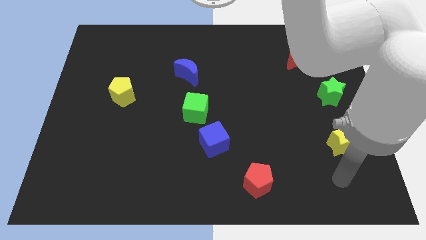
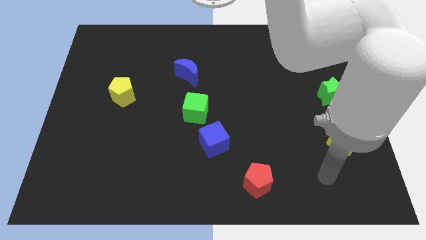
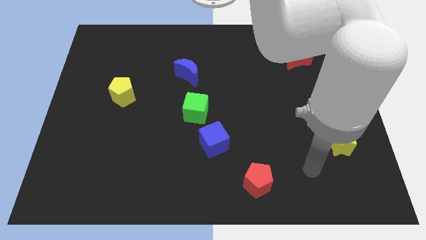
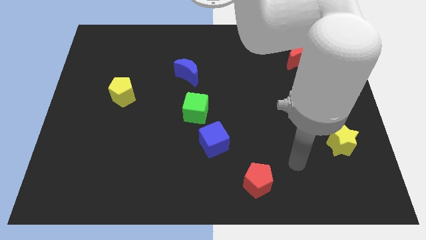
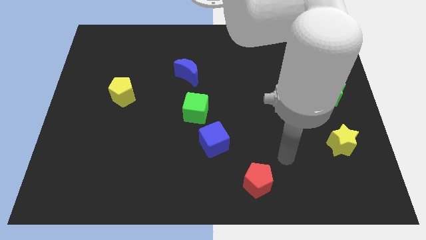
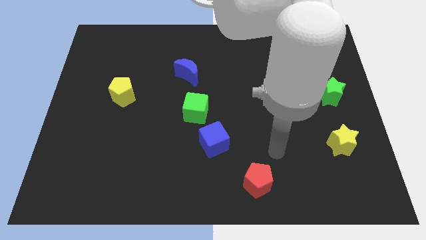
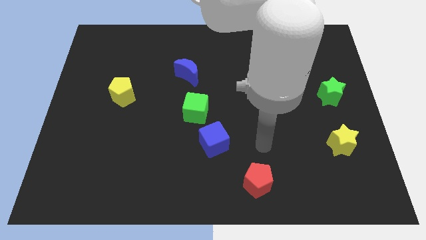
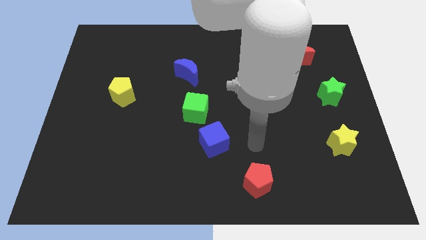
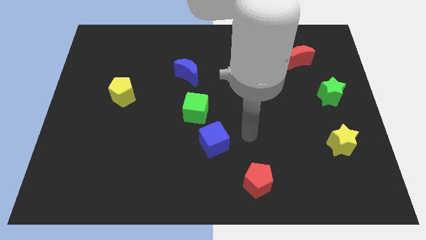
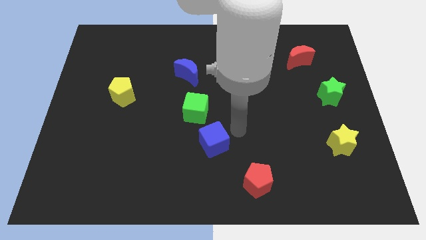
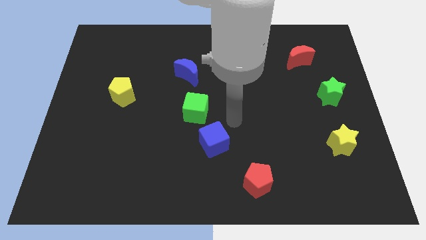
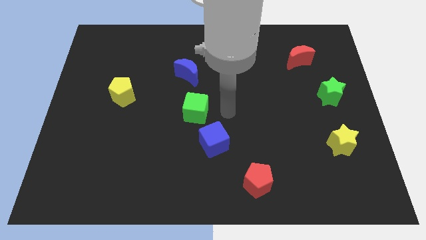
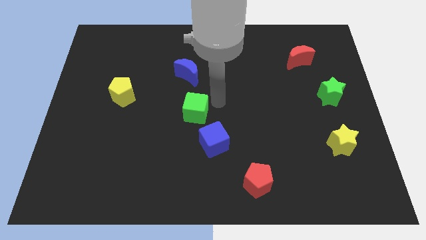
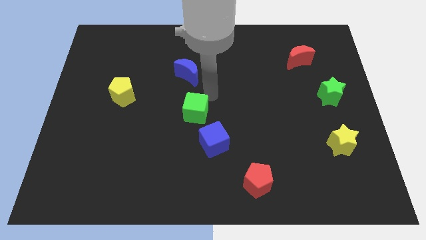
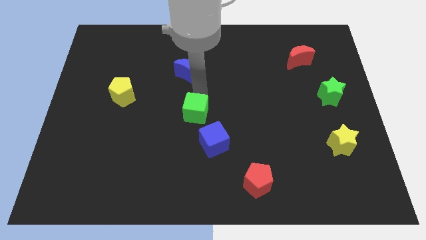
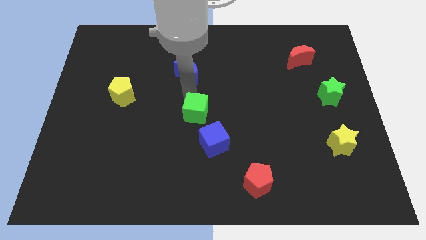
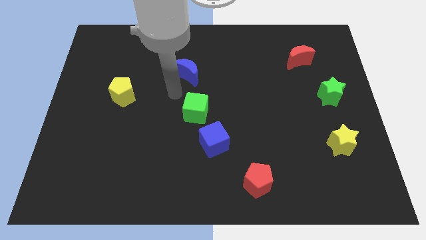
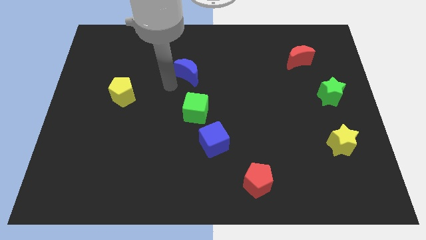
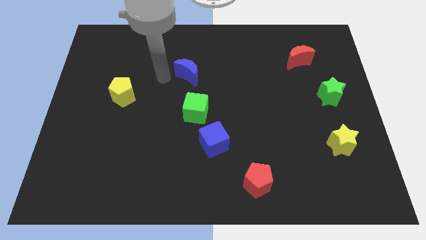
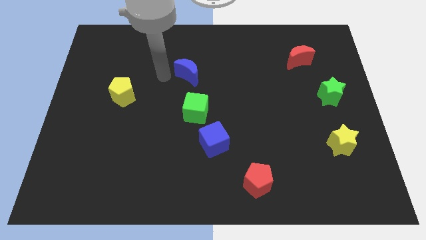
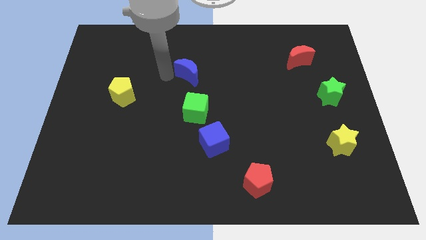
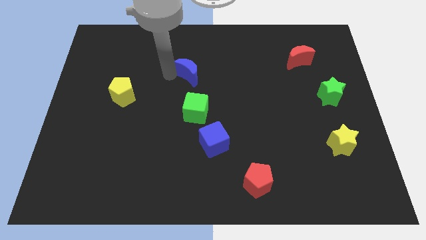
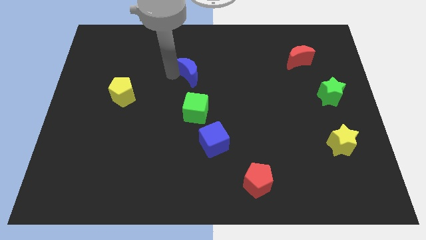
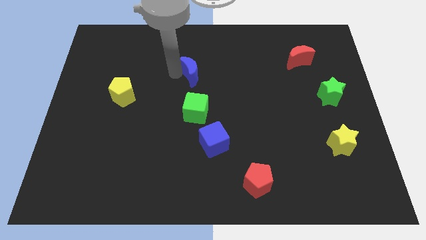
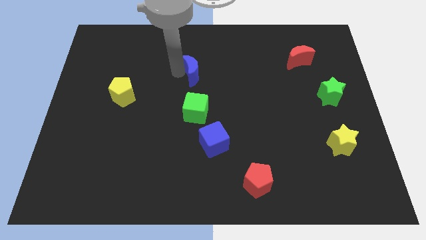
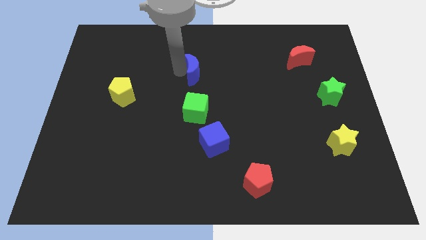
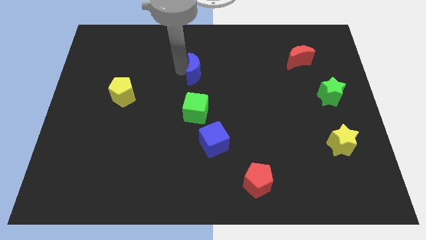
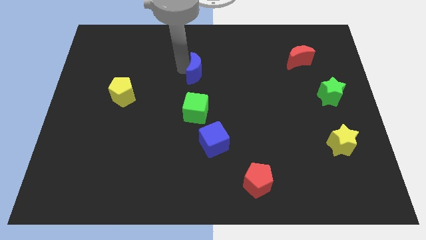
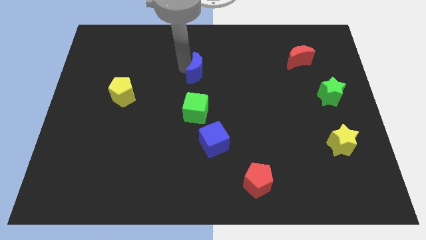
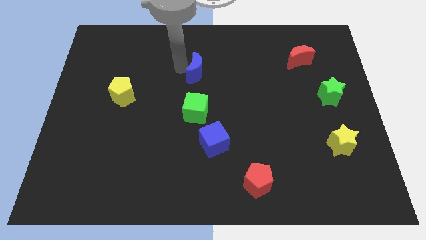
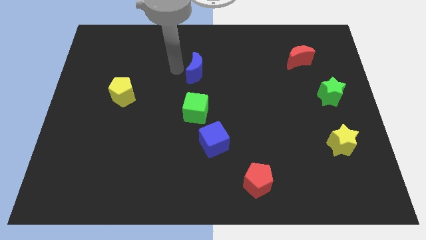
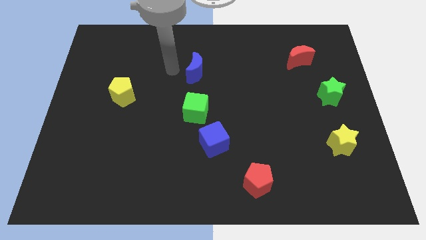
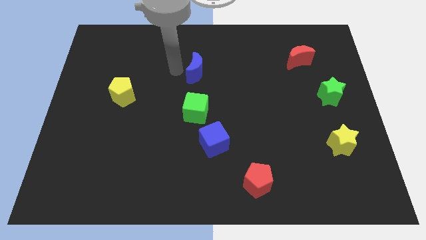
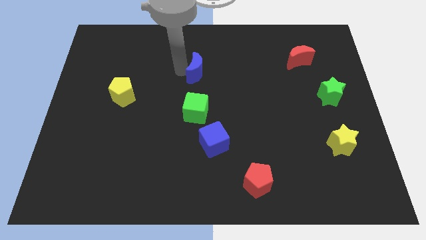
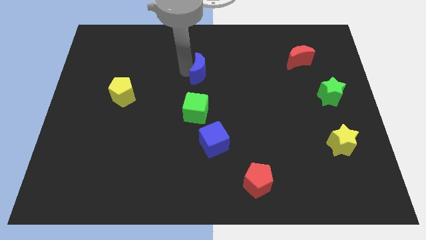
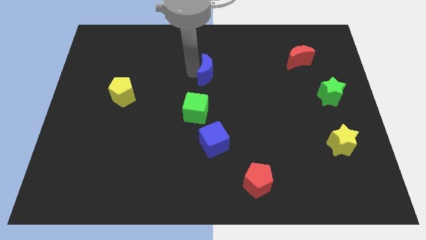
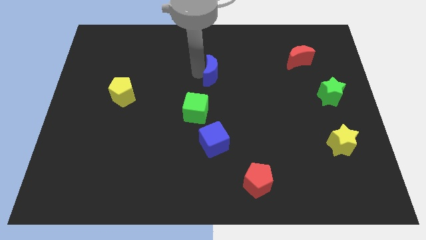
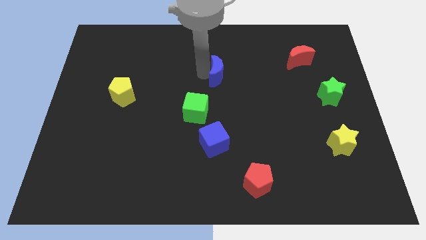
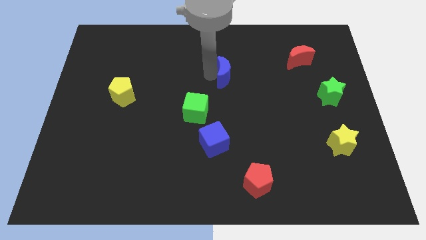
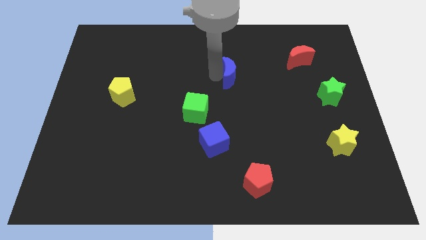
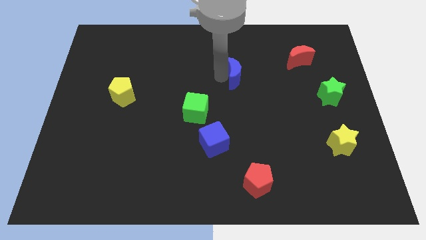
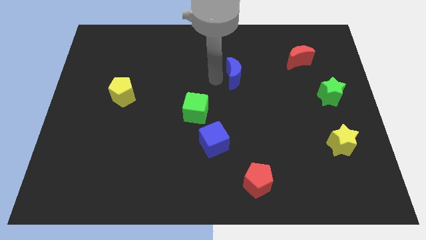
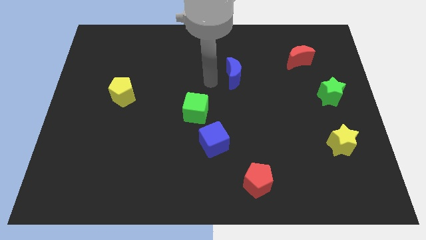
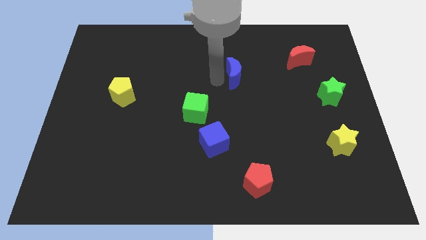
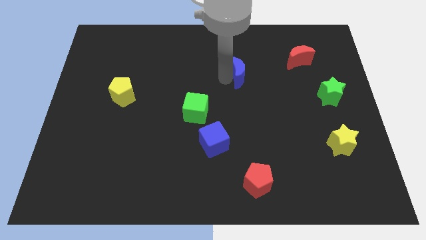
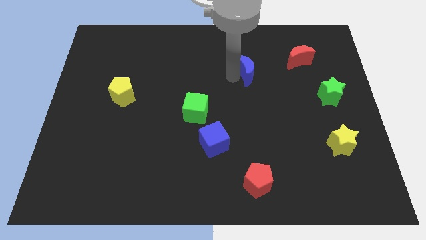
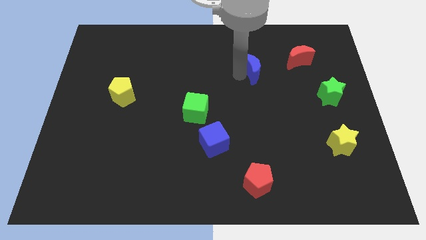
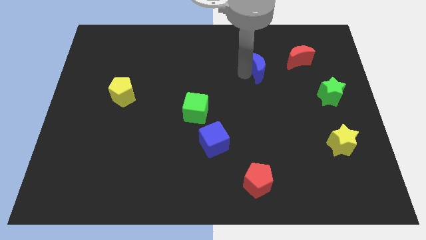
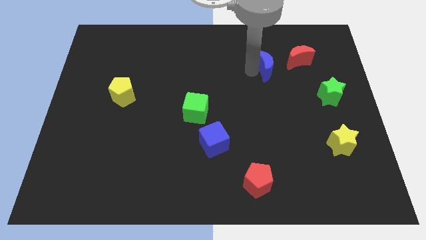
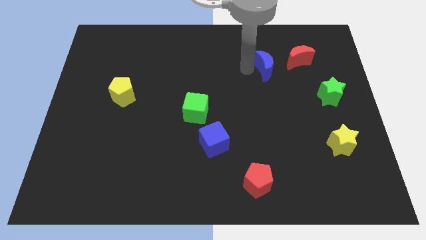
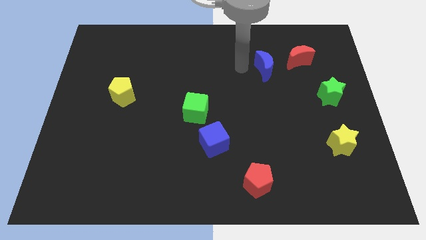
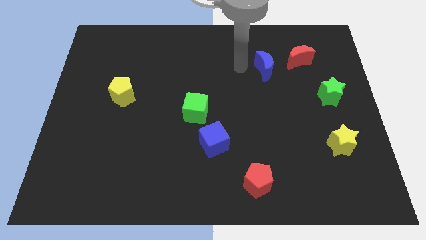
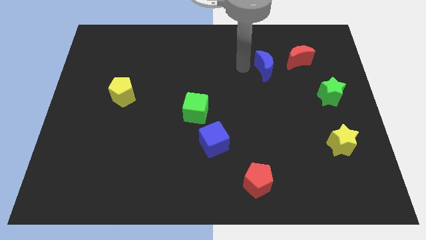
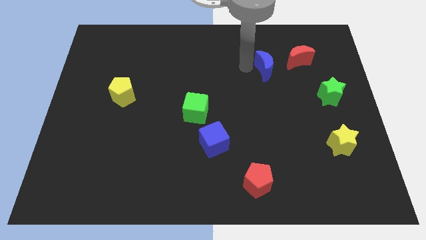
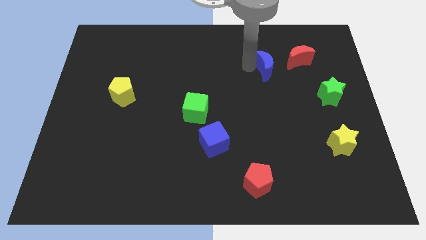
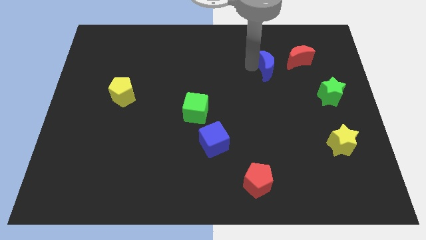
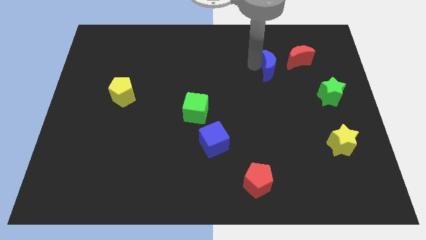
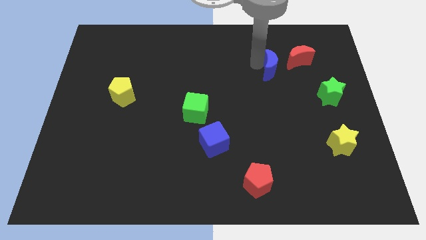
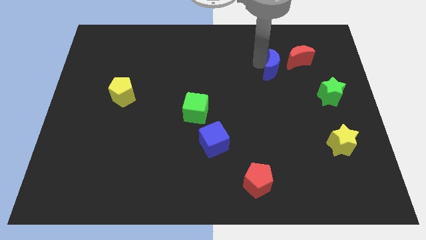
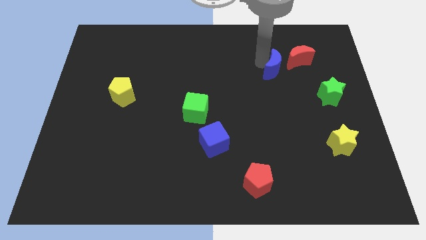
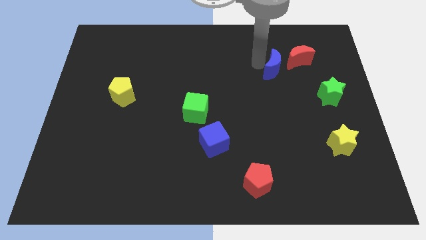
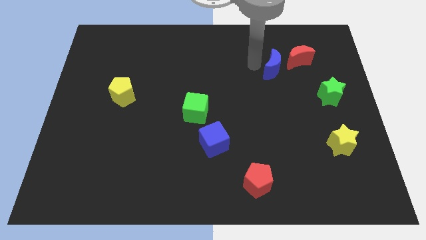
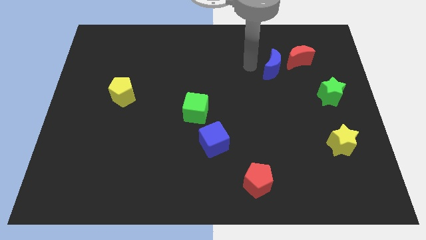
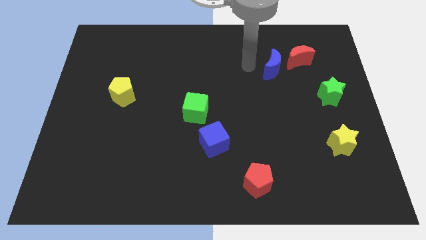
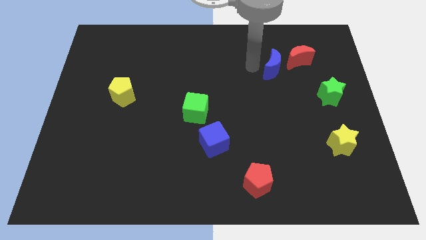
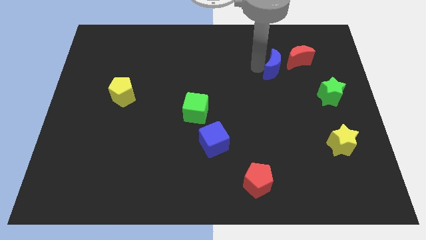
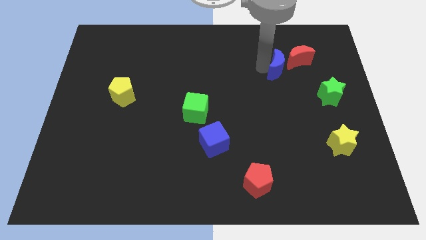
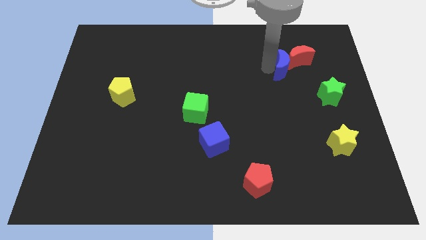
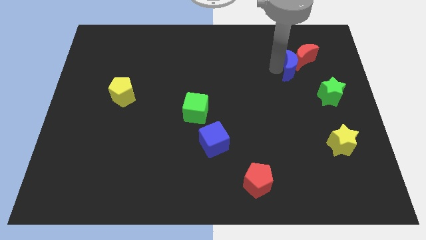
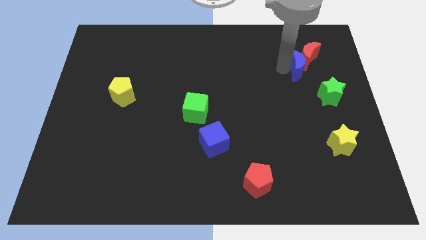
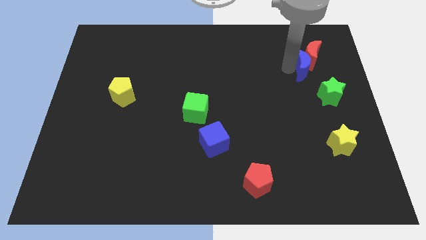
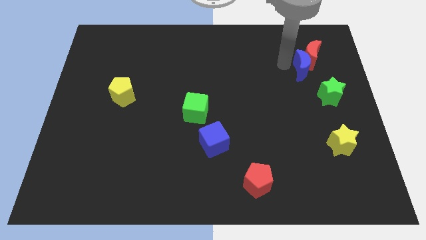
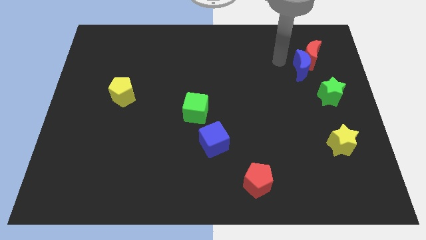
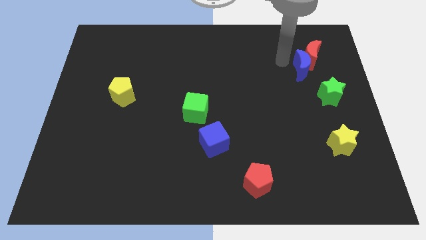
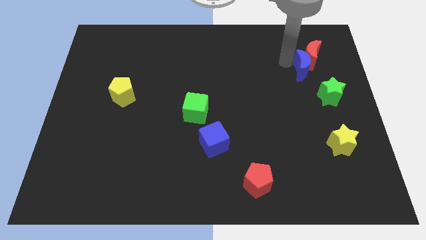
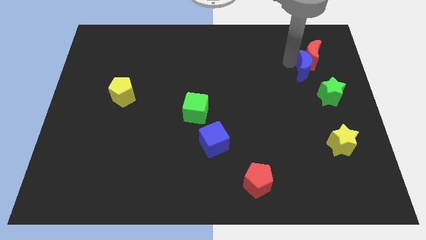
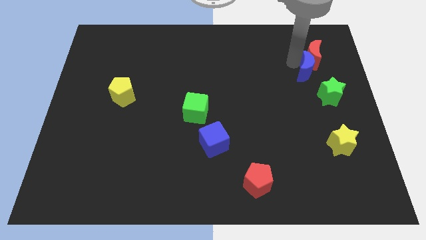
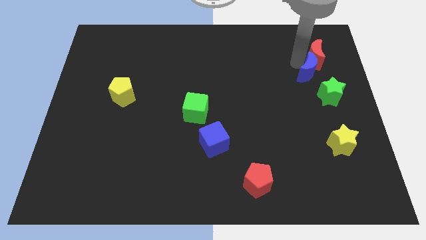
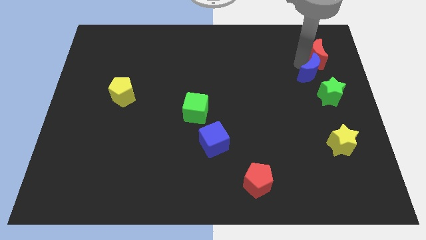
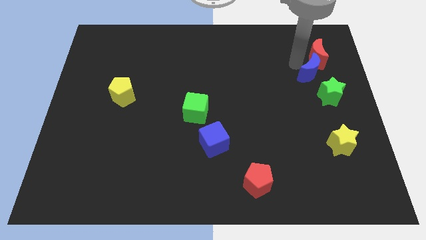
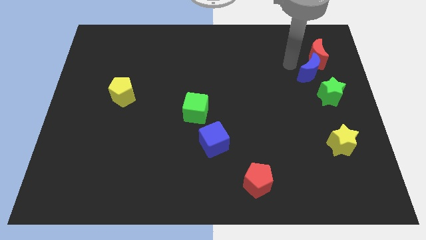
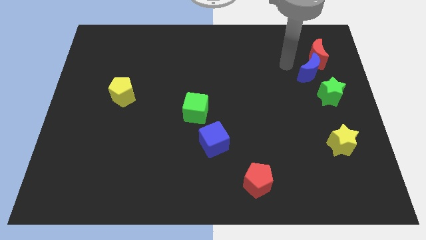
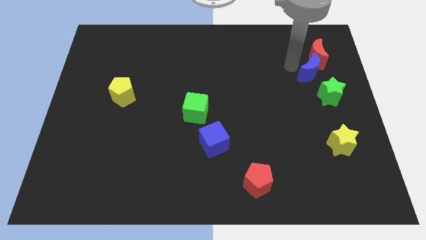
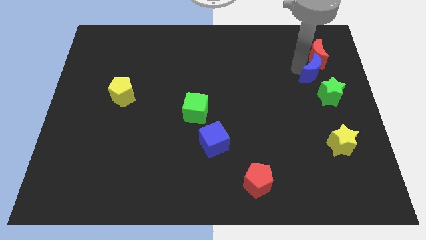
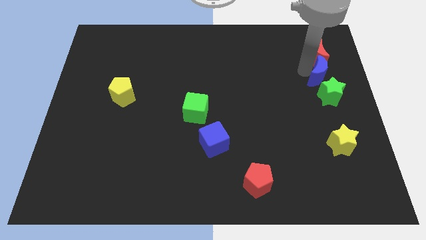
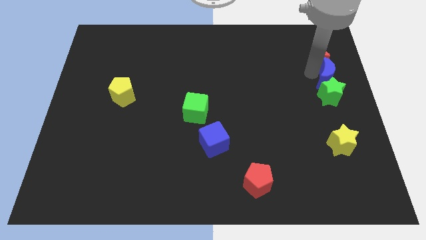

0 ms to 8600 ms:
push the blue moon to the center right

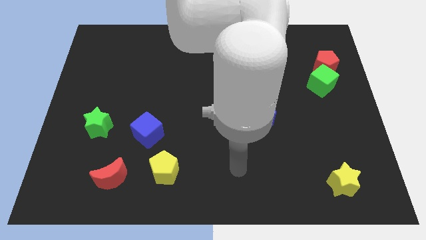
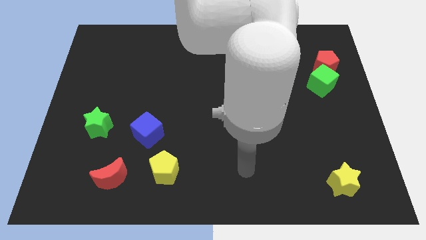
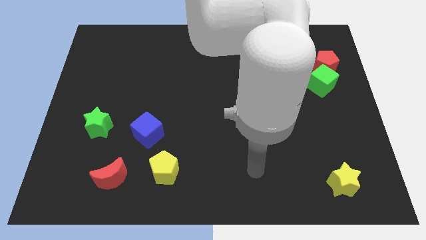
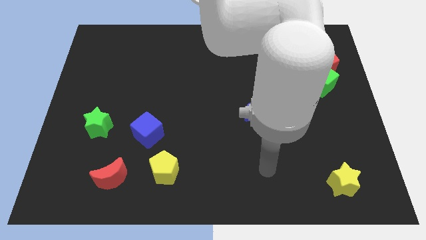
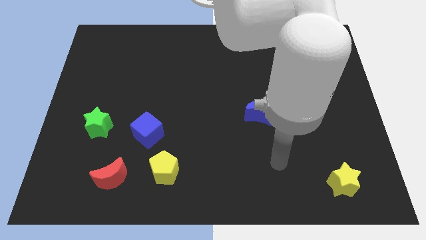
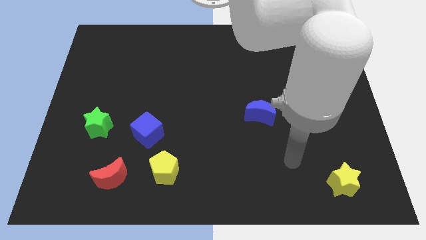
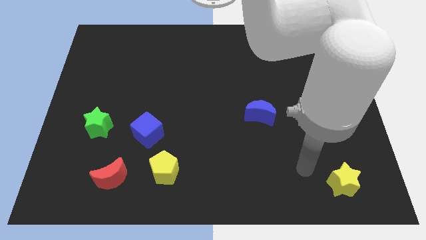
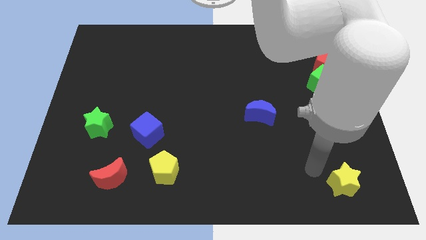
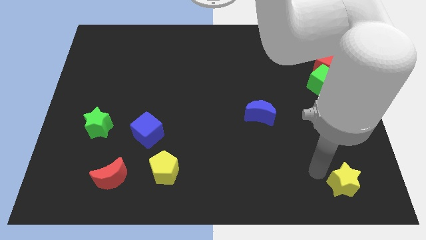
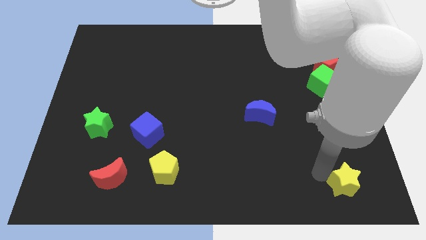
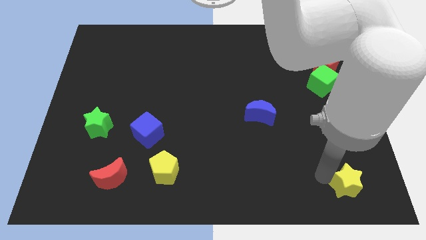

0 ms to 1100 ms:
move the yellow star to the lower right corner
